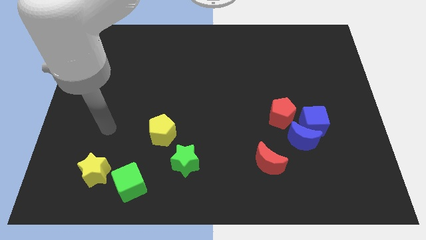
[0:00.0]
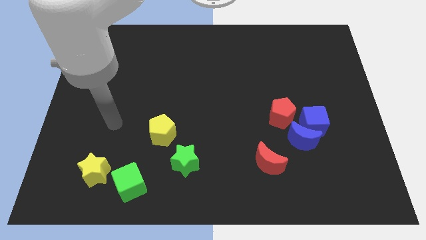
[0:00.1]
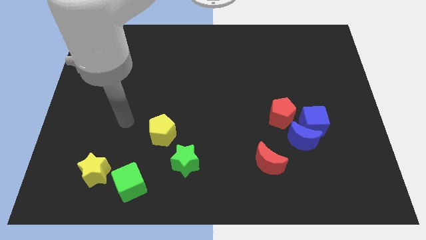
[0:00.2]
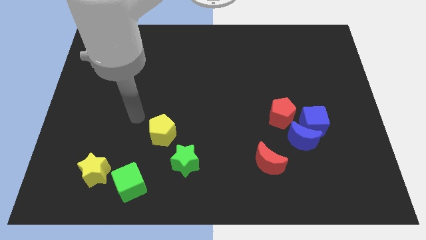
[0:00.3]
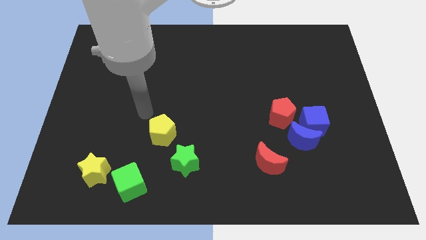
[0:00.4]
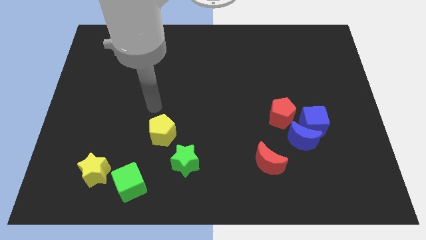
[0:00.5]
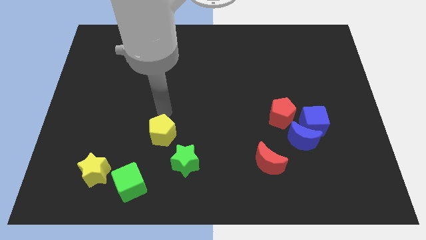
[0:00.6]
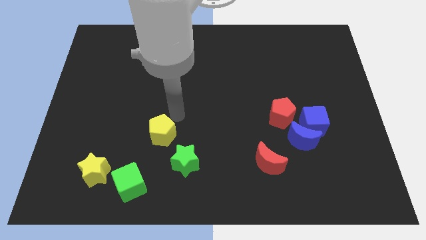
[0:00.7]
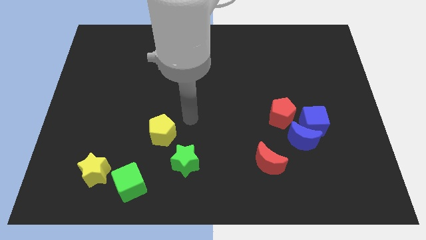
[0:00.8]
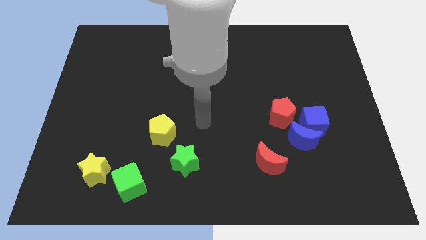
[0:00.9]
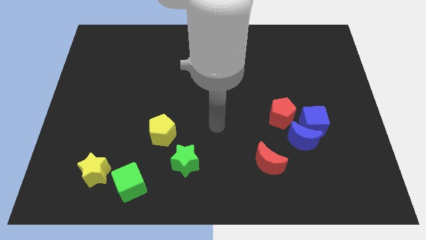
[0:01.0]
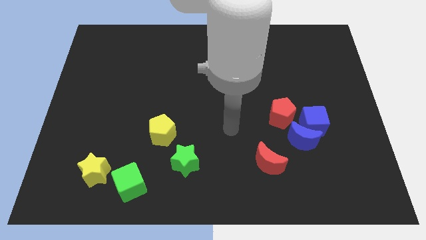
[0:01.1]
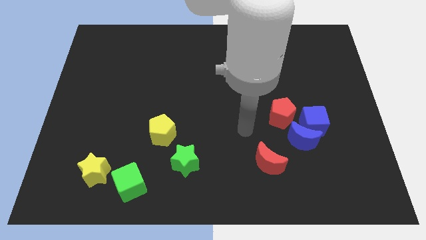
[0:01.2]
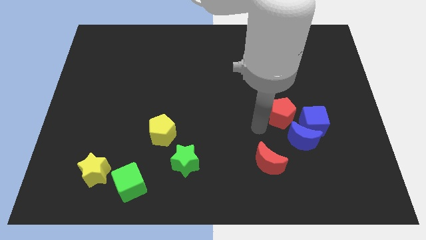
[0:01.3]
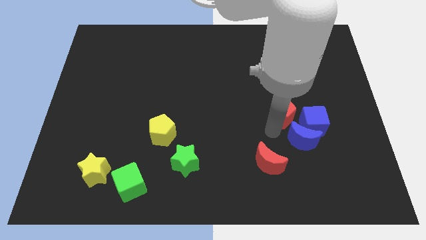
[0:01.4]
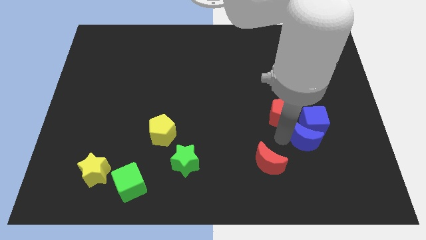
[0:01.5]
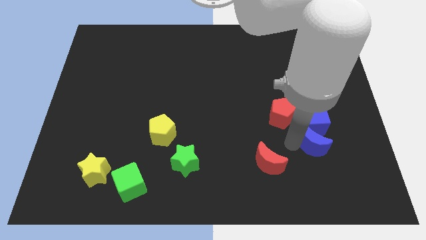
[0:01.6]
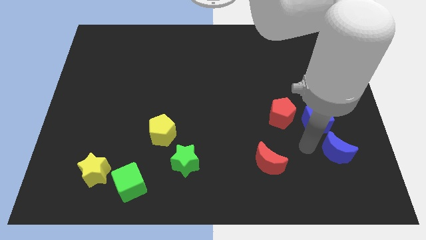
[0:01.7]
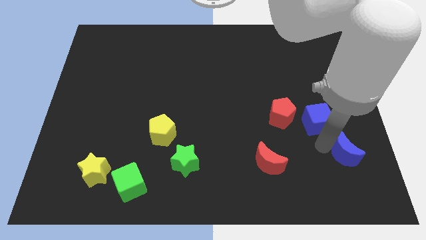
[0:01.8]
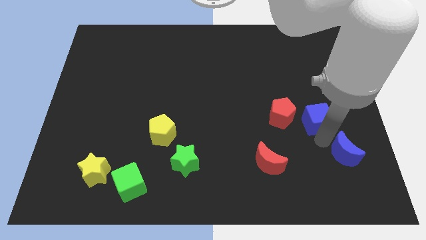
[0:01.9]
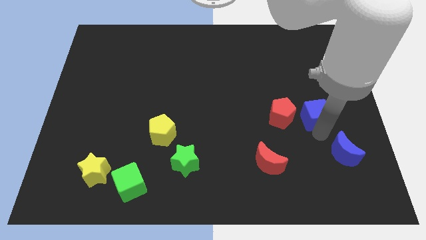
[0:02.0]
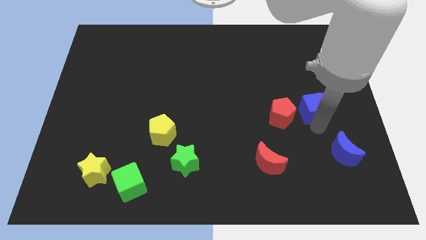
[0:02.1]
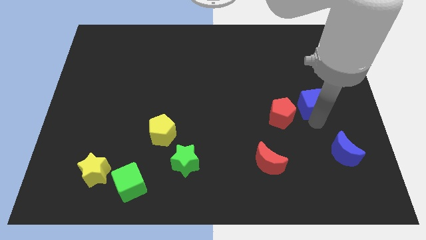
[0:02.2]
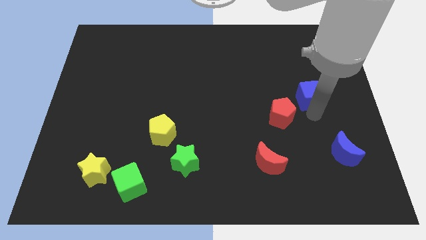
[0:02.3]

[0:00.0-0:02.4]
slightly move the blue cube up

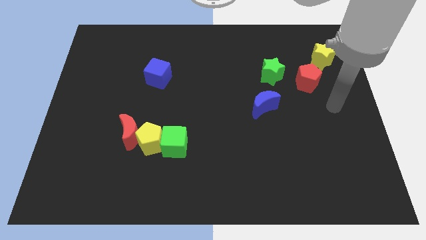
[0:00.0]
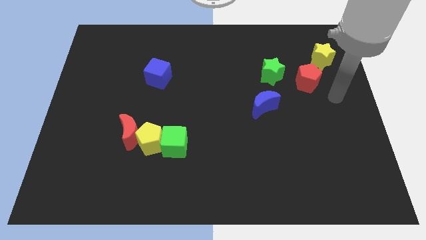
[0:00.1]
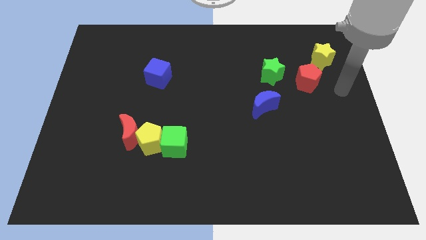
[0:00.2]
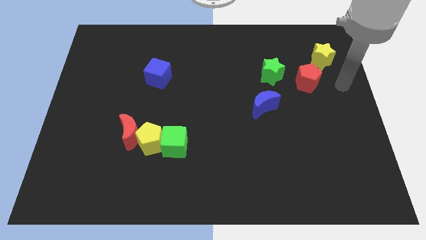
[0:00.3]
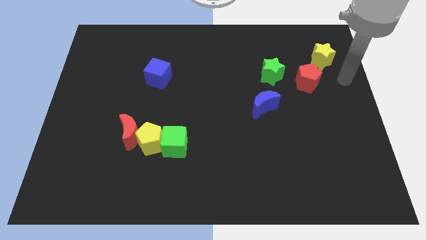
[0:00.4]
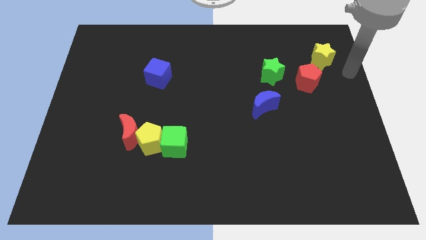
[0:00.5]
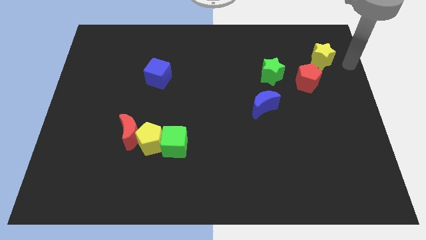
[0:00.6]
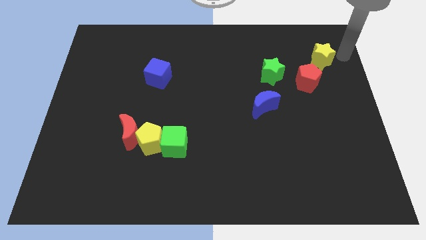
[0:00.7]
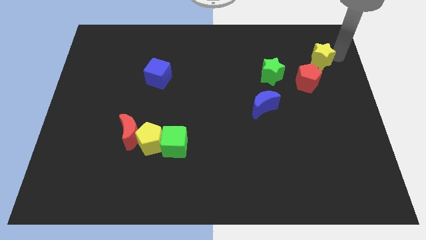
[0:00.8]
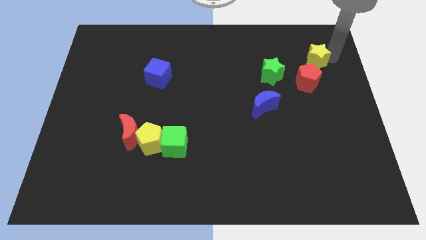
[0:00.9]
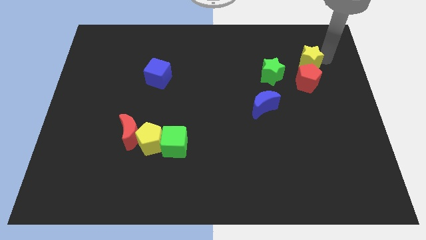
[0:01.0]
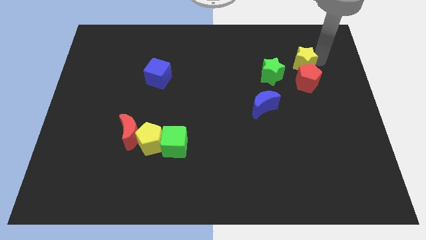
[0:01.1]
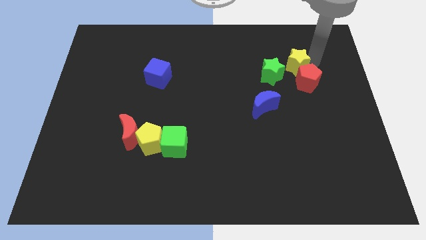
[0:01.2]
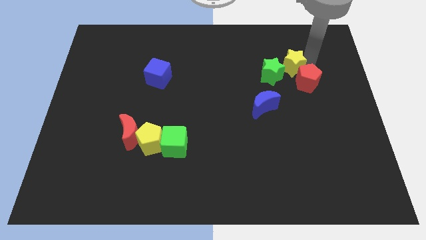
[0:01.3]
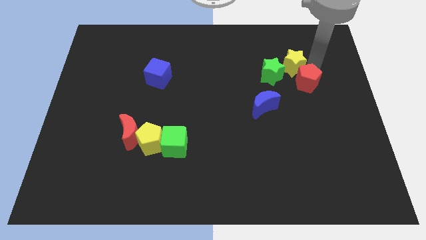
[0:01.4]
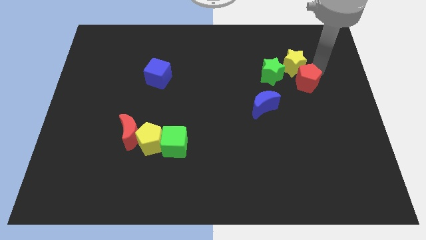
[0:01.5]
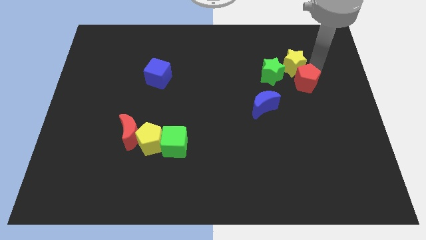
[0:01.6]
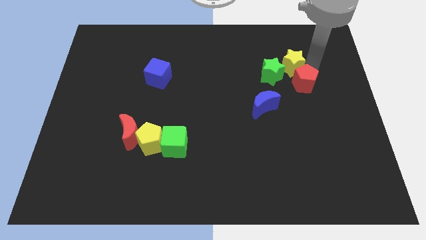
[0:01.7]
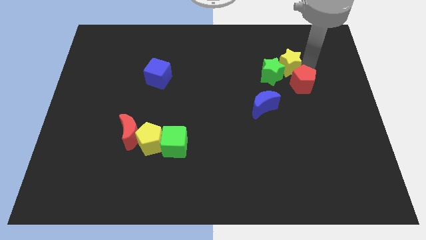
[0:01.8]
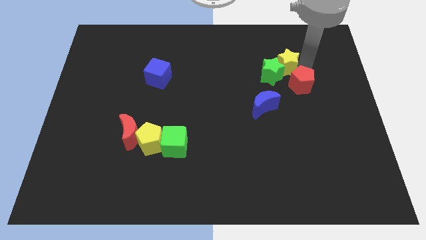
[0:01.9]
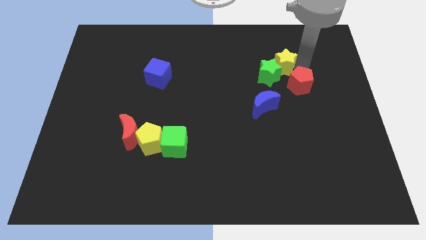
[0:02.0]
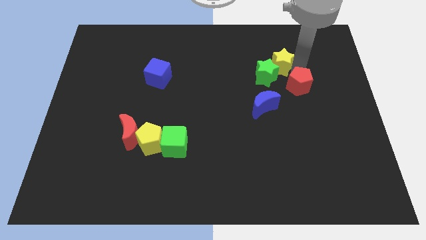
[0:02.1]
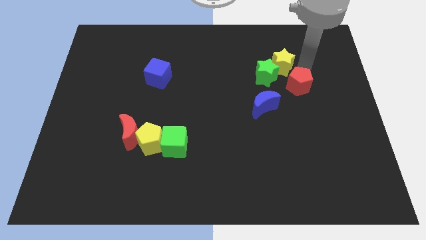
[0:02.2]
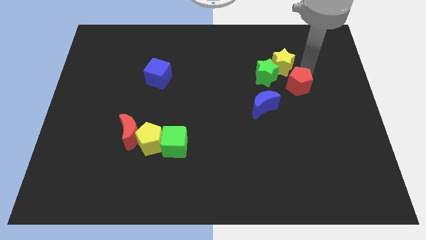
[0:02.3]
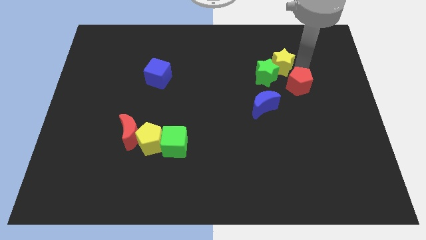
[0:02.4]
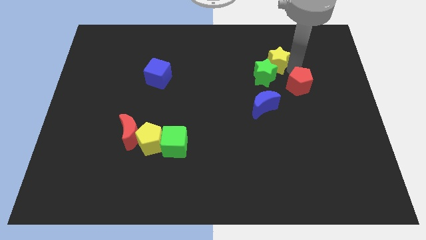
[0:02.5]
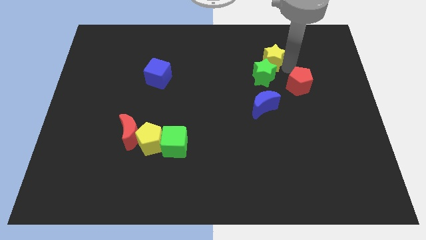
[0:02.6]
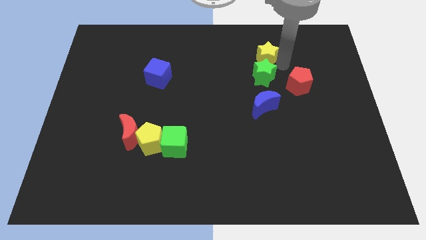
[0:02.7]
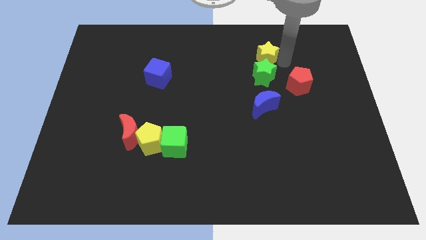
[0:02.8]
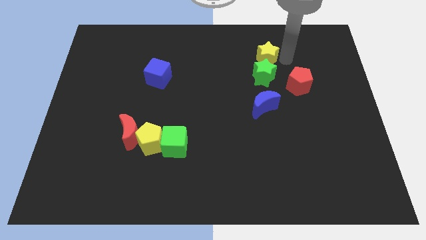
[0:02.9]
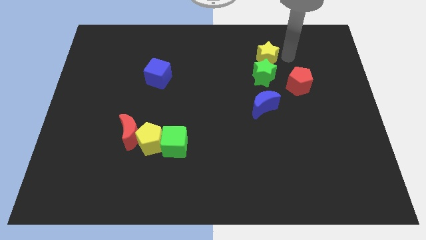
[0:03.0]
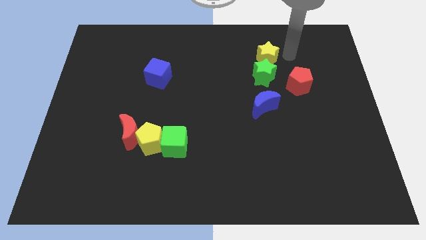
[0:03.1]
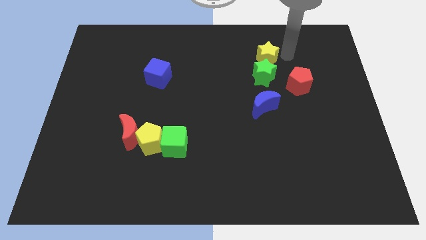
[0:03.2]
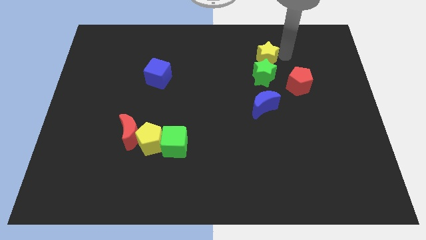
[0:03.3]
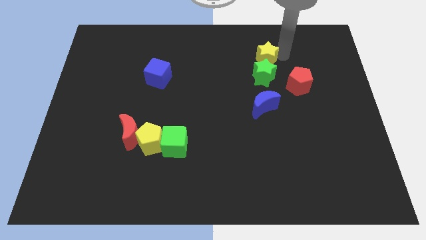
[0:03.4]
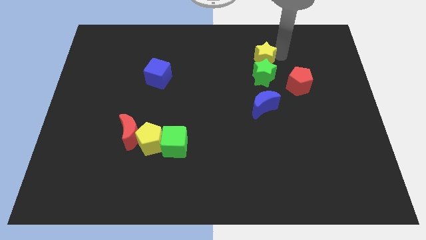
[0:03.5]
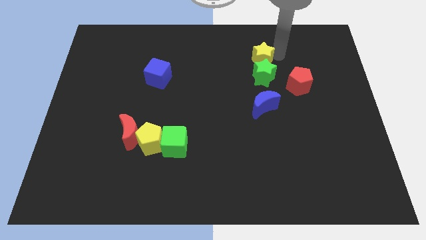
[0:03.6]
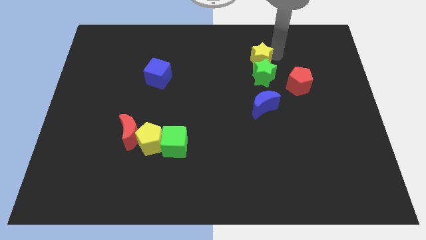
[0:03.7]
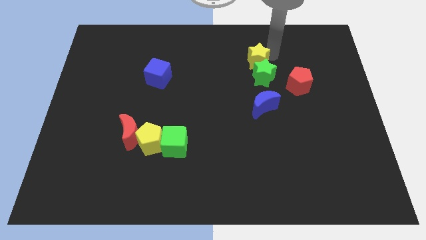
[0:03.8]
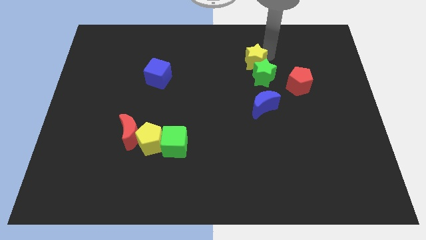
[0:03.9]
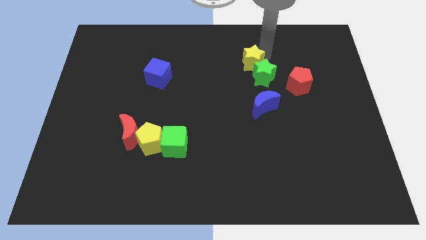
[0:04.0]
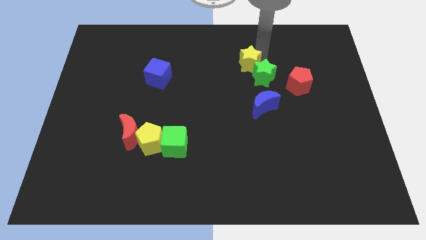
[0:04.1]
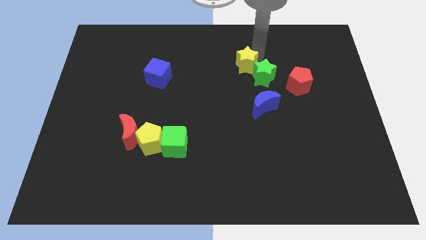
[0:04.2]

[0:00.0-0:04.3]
move the yellow star to the left

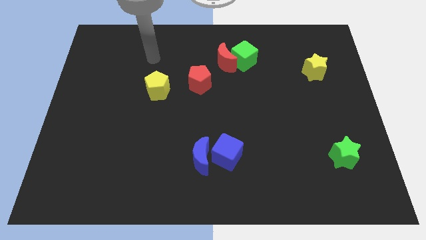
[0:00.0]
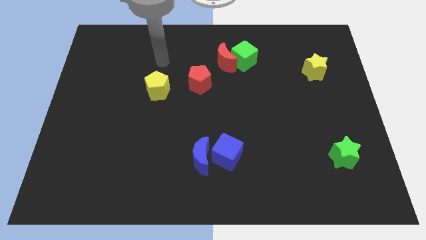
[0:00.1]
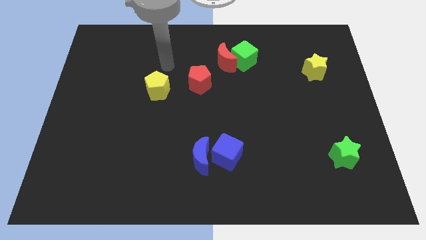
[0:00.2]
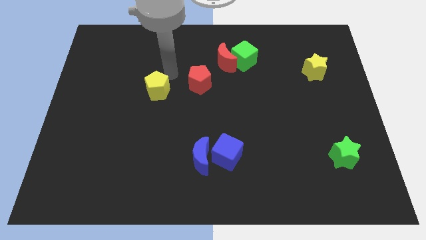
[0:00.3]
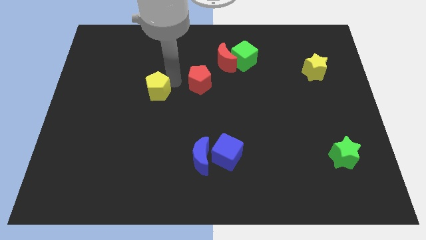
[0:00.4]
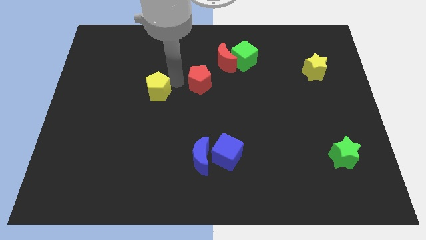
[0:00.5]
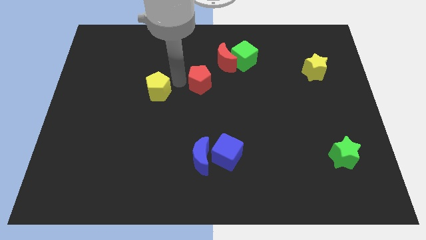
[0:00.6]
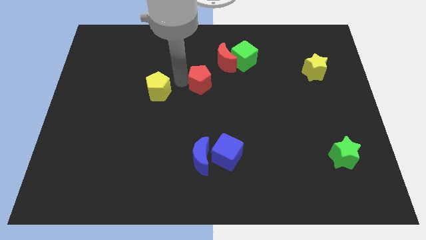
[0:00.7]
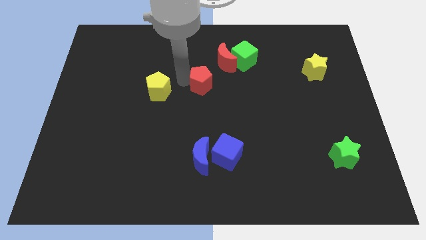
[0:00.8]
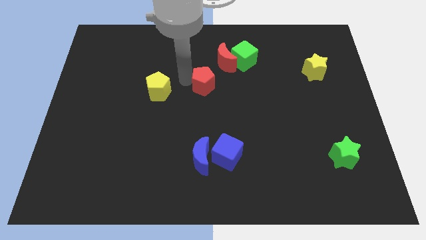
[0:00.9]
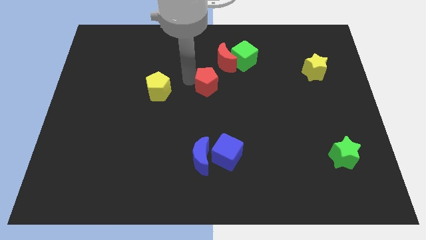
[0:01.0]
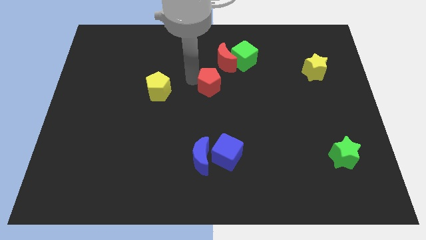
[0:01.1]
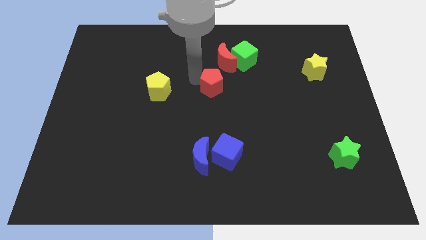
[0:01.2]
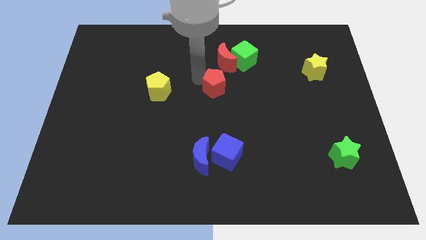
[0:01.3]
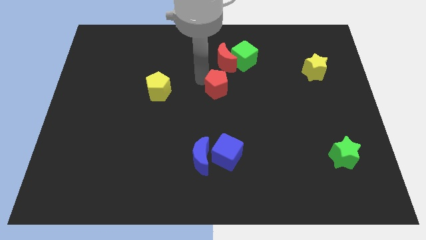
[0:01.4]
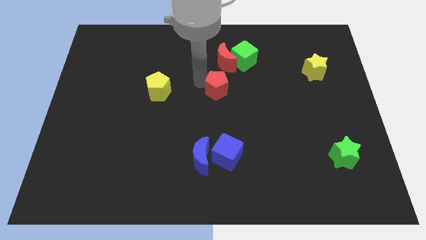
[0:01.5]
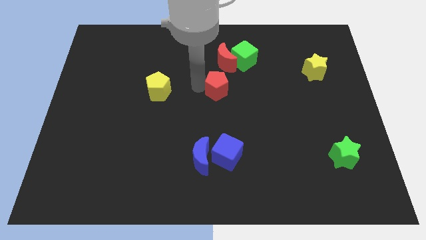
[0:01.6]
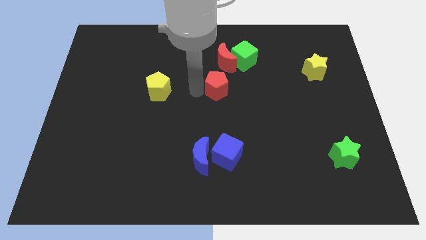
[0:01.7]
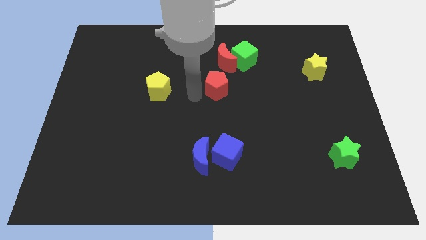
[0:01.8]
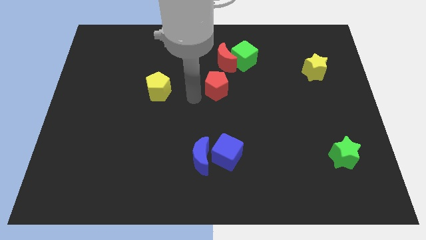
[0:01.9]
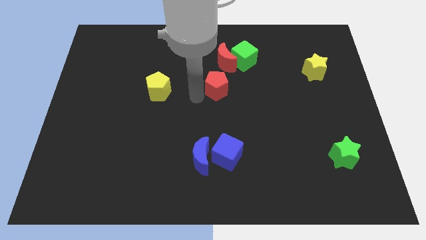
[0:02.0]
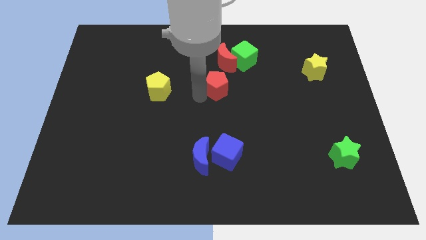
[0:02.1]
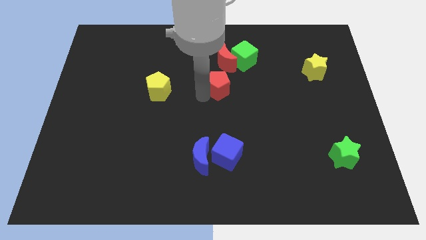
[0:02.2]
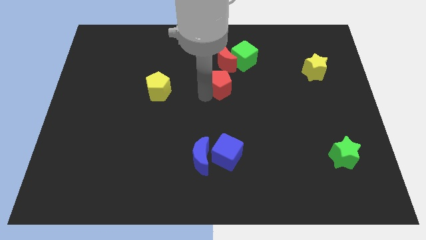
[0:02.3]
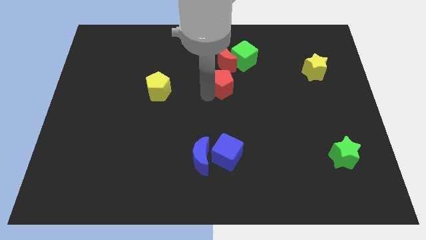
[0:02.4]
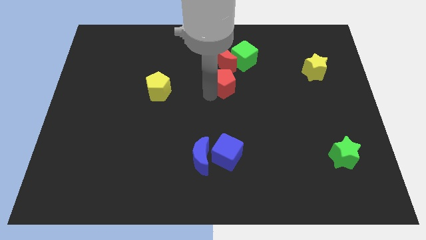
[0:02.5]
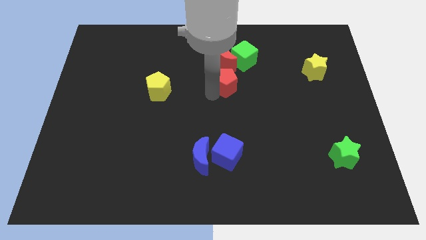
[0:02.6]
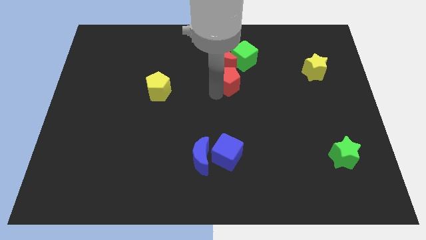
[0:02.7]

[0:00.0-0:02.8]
slightly slide the red pentagon right
